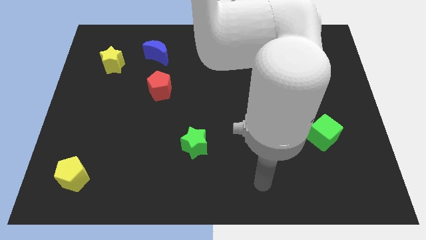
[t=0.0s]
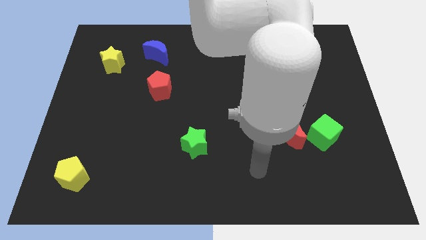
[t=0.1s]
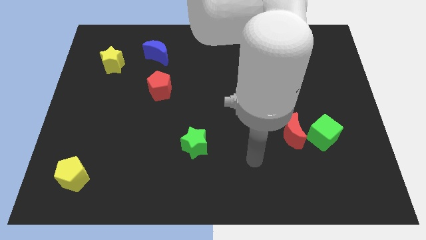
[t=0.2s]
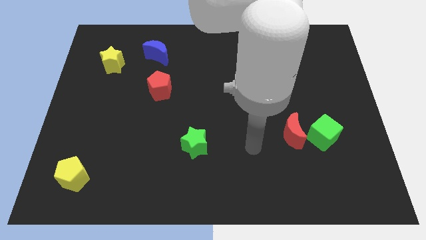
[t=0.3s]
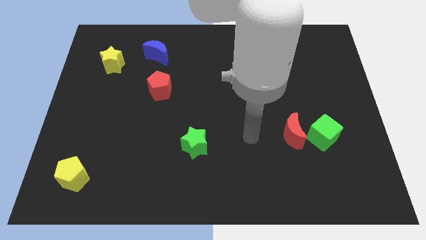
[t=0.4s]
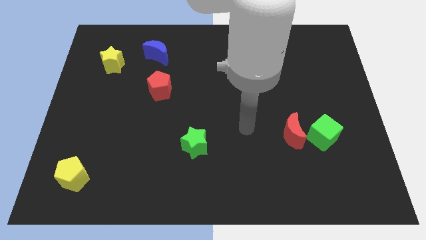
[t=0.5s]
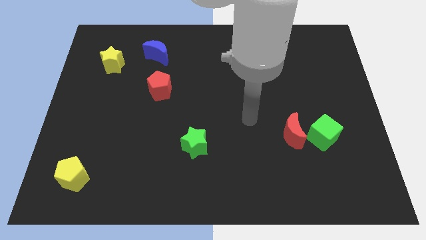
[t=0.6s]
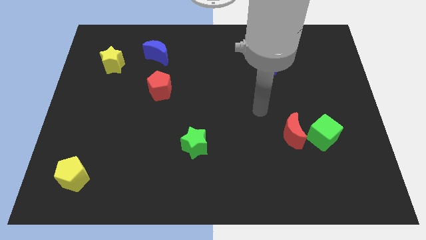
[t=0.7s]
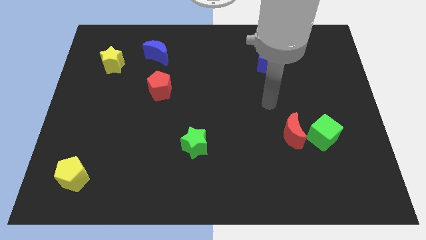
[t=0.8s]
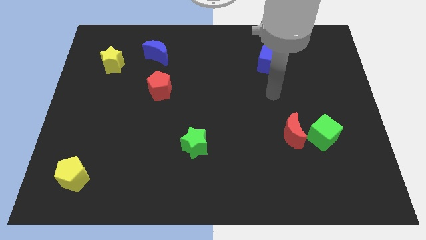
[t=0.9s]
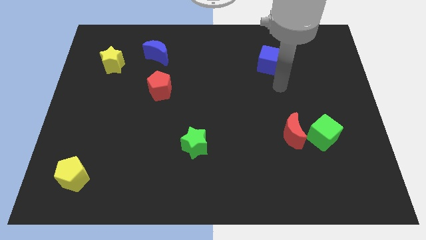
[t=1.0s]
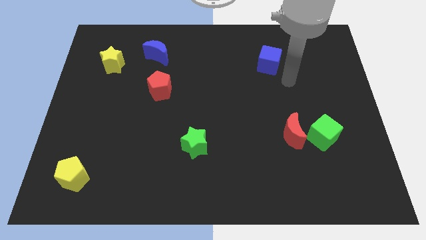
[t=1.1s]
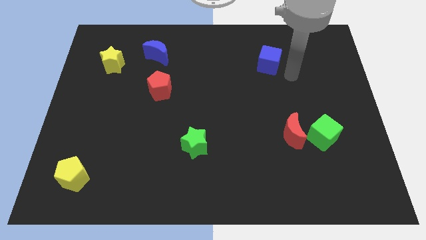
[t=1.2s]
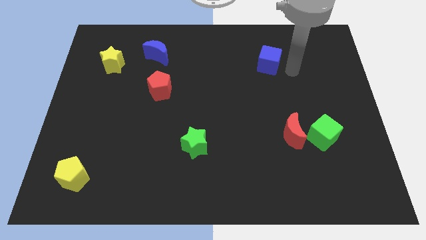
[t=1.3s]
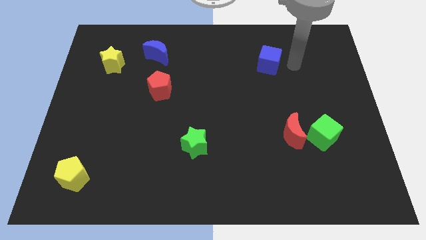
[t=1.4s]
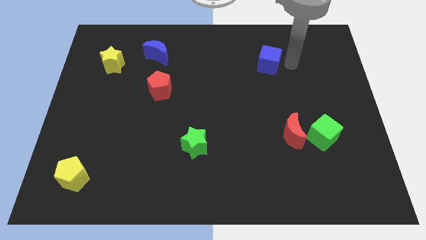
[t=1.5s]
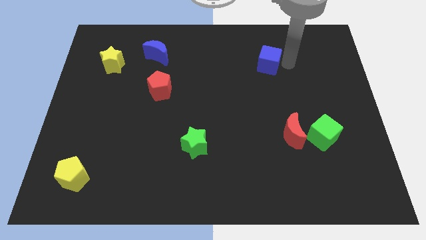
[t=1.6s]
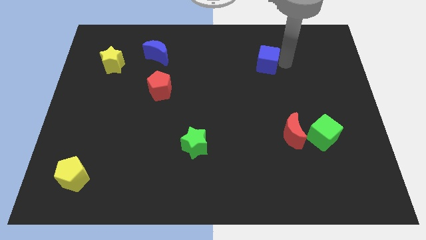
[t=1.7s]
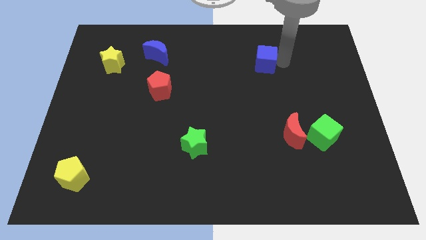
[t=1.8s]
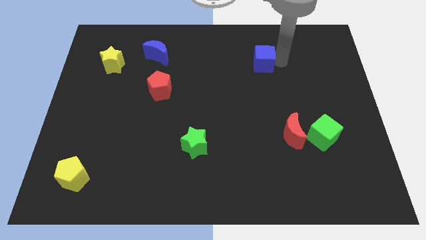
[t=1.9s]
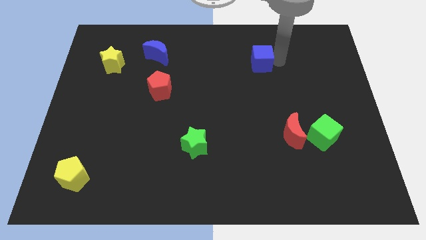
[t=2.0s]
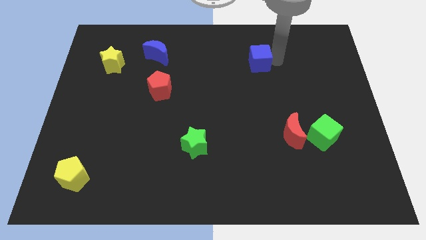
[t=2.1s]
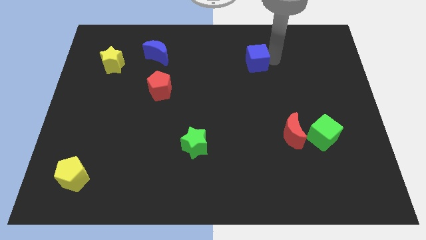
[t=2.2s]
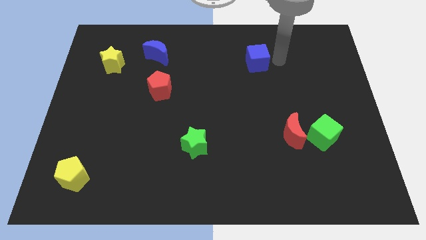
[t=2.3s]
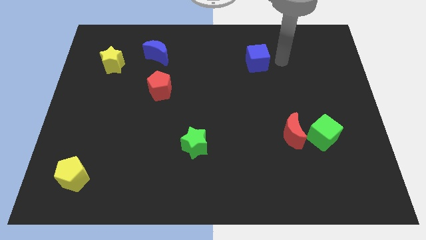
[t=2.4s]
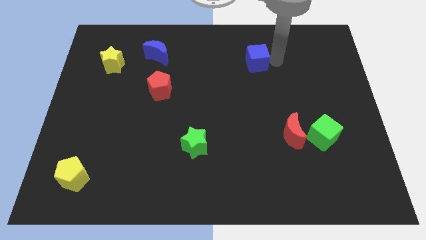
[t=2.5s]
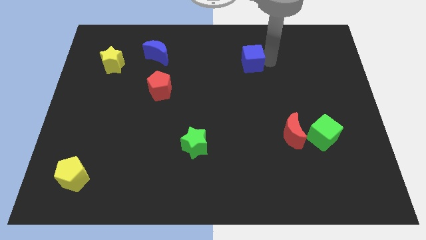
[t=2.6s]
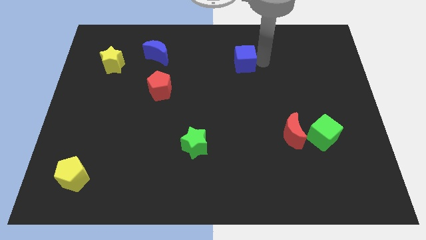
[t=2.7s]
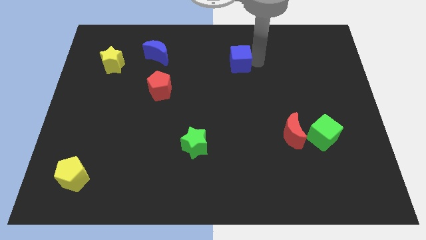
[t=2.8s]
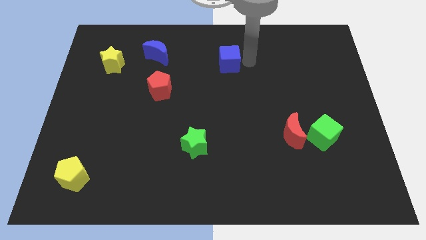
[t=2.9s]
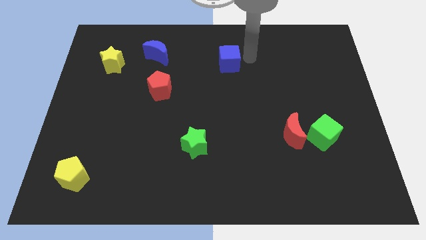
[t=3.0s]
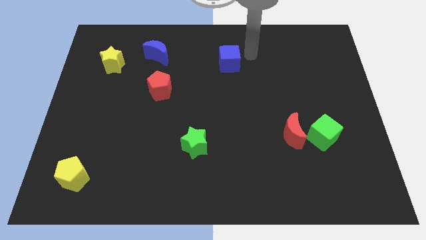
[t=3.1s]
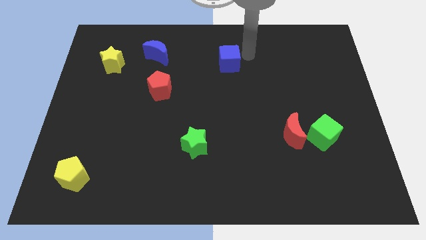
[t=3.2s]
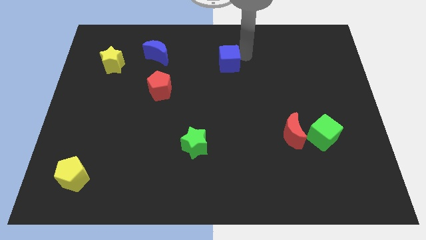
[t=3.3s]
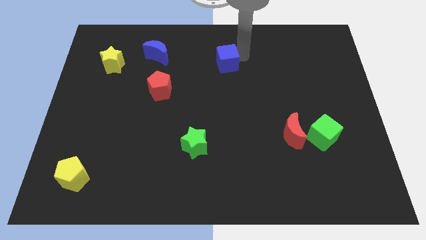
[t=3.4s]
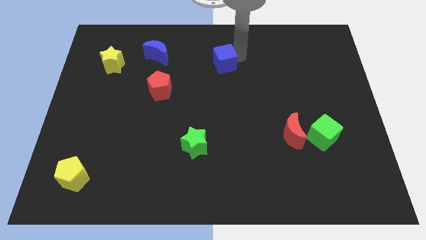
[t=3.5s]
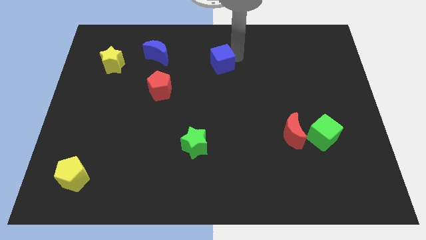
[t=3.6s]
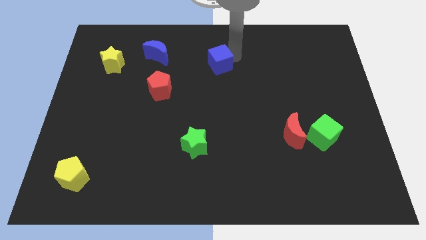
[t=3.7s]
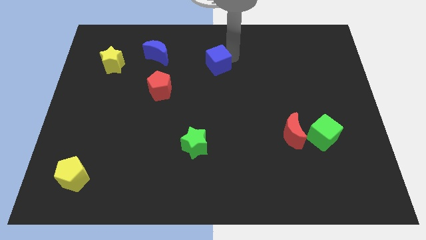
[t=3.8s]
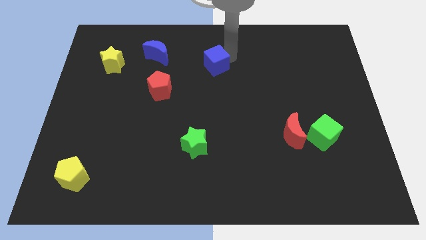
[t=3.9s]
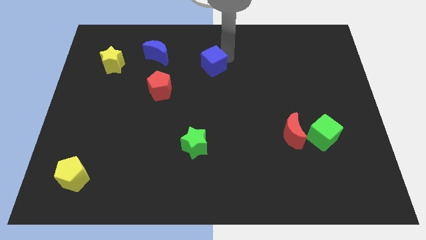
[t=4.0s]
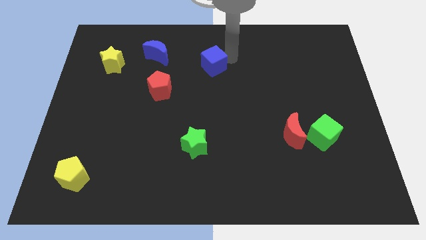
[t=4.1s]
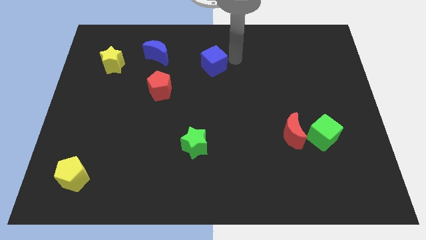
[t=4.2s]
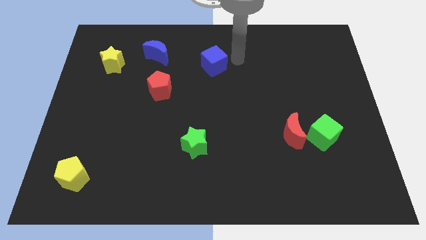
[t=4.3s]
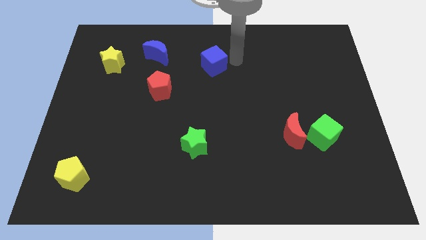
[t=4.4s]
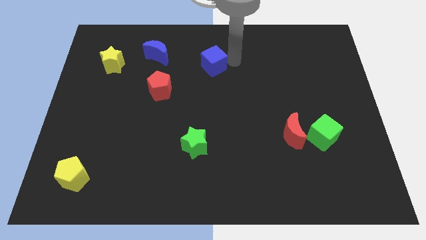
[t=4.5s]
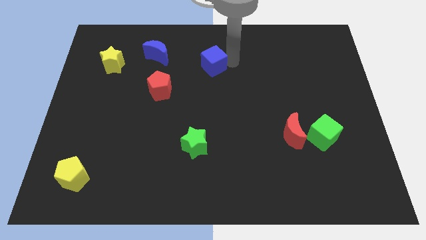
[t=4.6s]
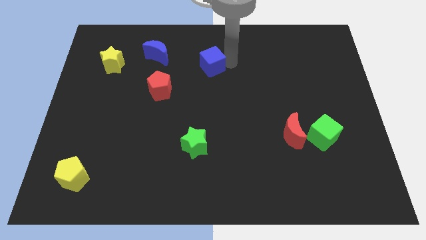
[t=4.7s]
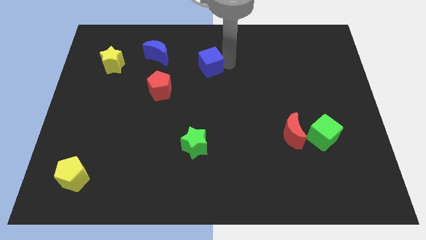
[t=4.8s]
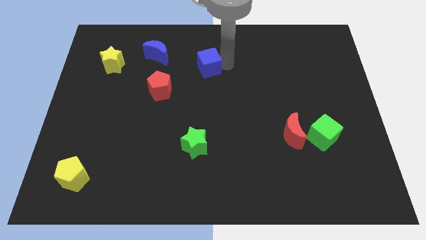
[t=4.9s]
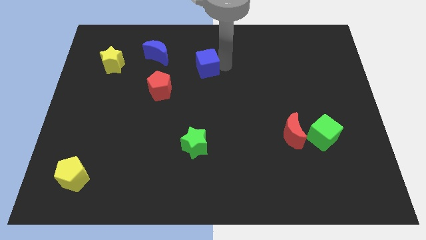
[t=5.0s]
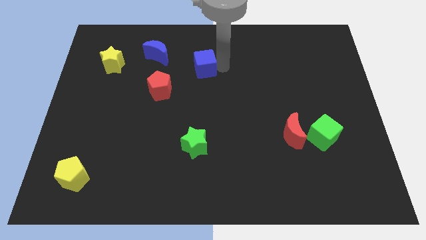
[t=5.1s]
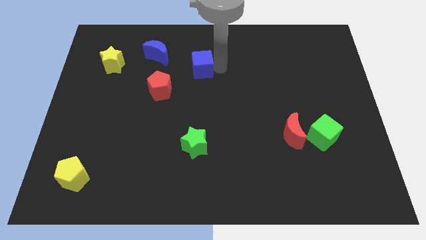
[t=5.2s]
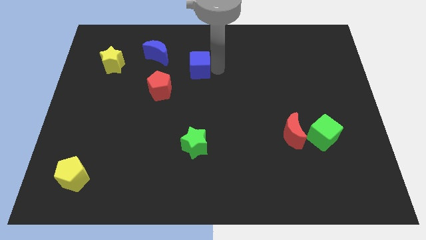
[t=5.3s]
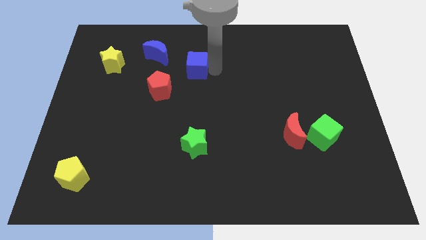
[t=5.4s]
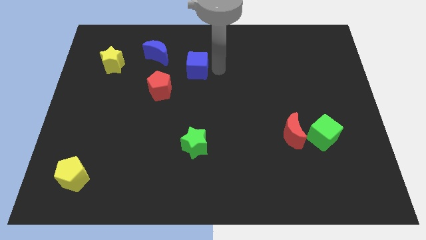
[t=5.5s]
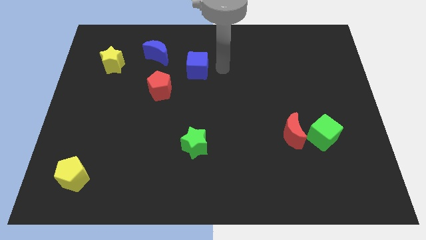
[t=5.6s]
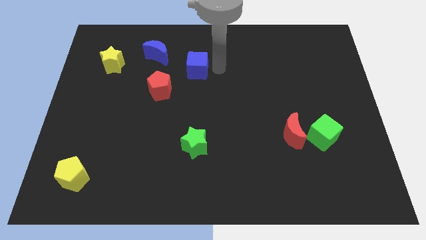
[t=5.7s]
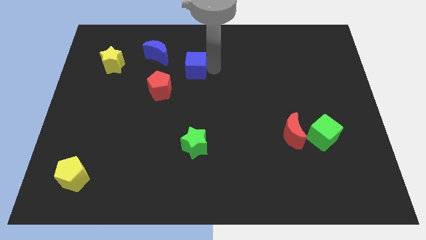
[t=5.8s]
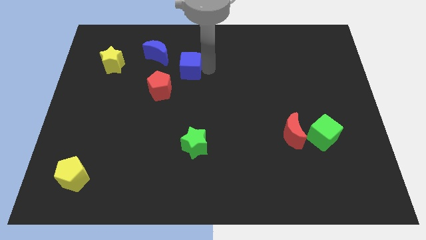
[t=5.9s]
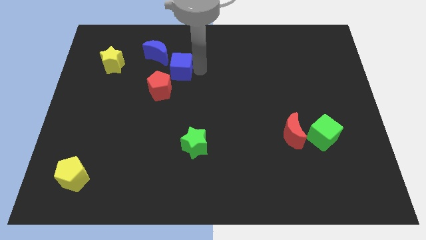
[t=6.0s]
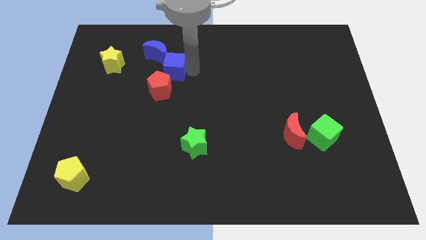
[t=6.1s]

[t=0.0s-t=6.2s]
move the blue cube right of the yellow star

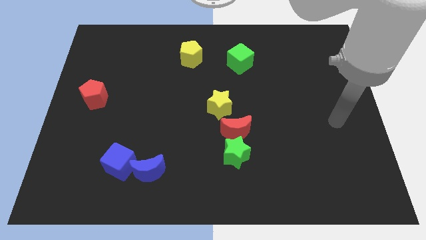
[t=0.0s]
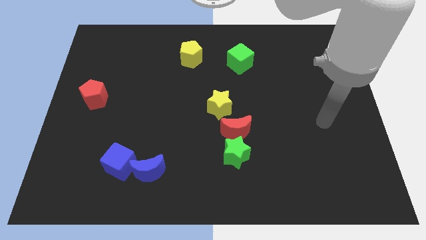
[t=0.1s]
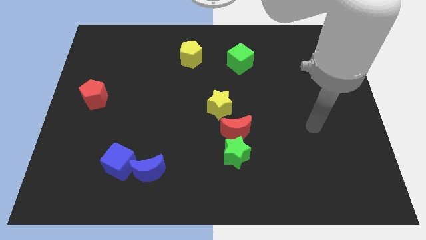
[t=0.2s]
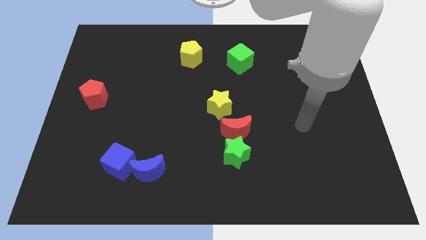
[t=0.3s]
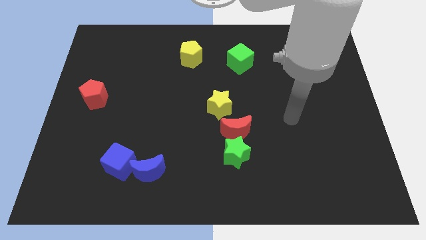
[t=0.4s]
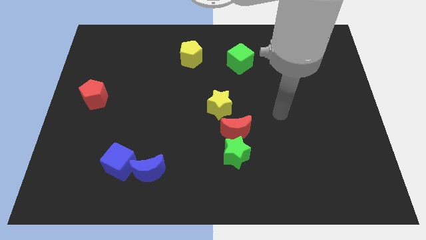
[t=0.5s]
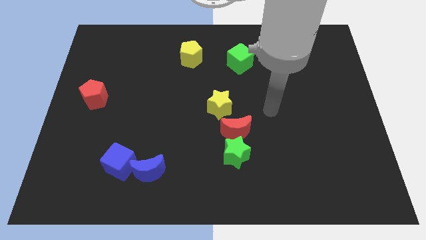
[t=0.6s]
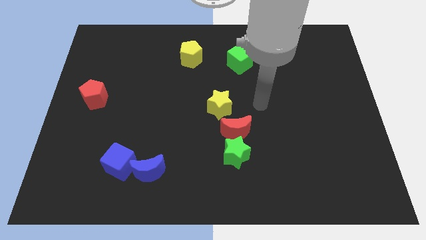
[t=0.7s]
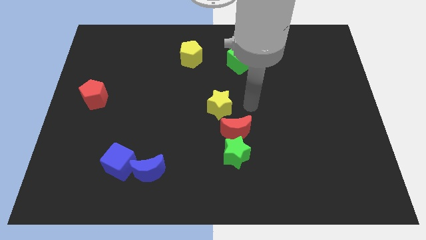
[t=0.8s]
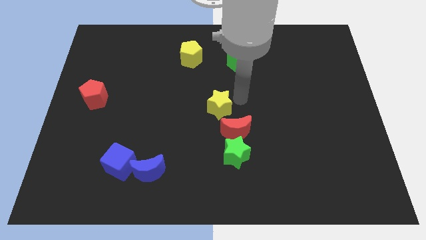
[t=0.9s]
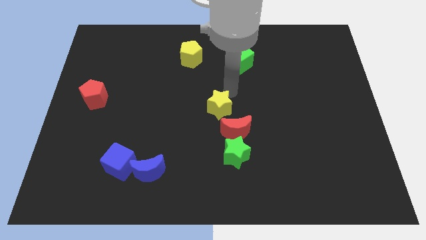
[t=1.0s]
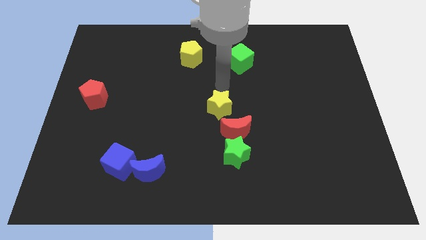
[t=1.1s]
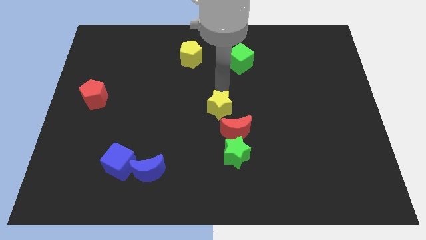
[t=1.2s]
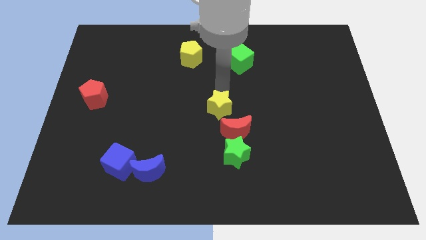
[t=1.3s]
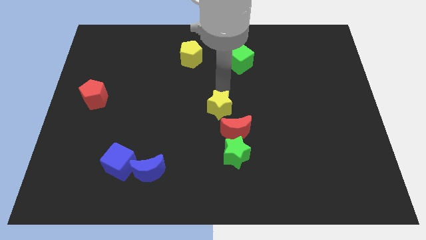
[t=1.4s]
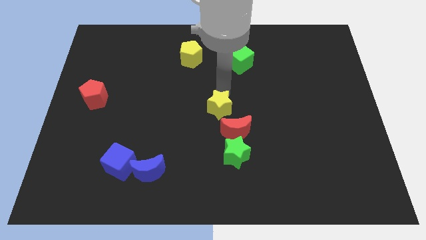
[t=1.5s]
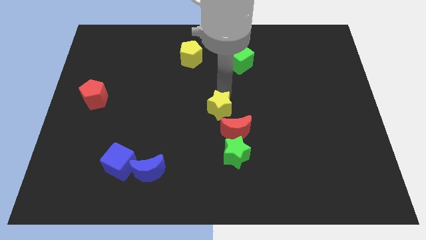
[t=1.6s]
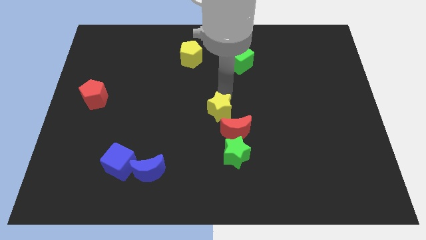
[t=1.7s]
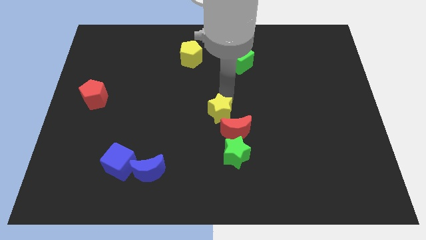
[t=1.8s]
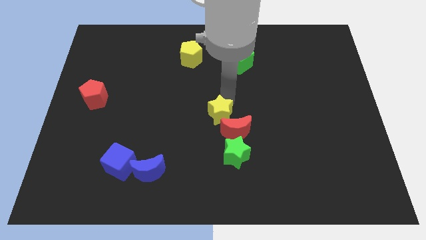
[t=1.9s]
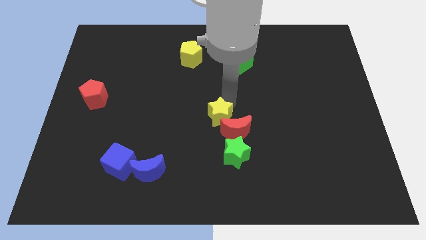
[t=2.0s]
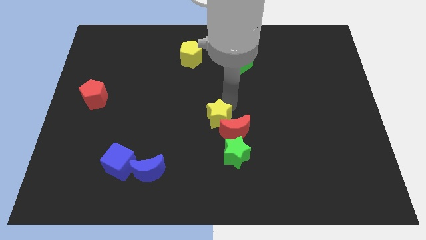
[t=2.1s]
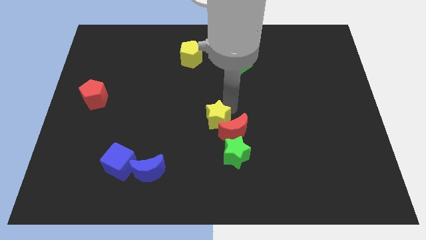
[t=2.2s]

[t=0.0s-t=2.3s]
put the yellow star to the top left of the green star
